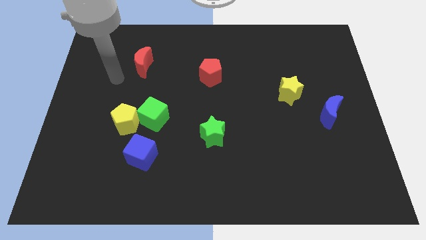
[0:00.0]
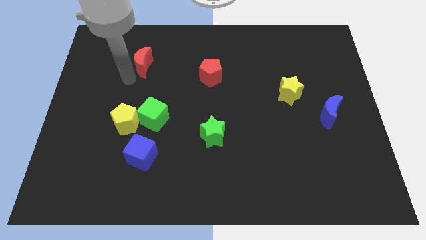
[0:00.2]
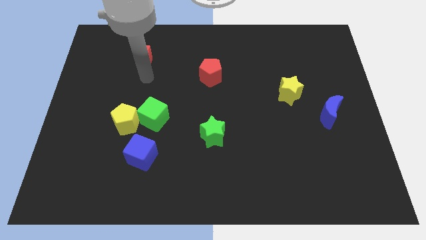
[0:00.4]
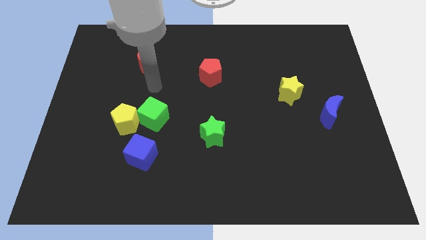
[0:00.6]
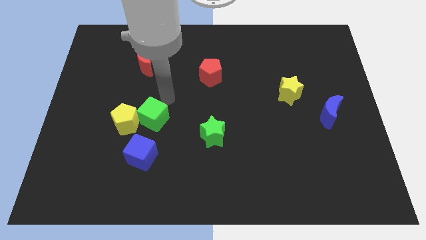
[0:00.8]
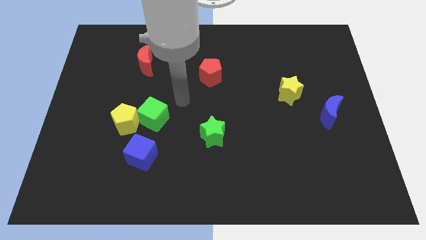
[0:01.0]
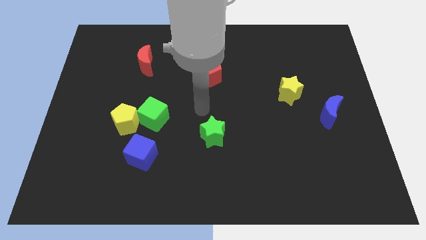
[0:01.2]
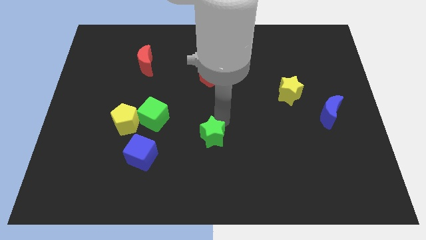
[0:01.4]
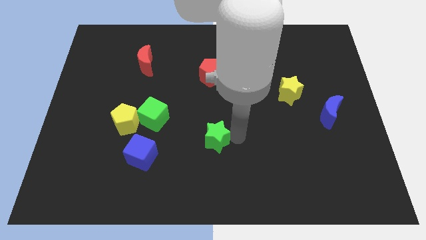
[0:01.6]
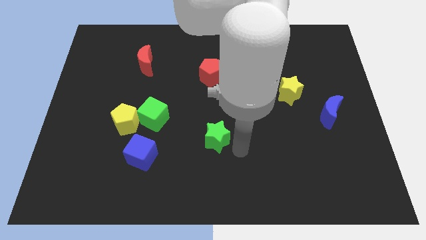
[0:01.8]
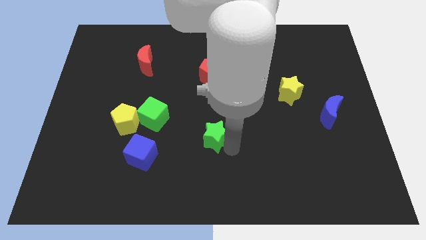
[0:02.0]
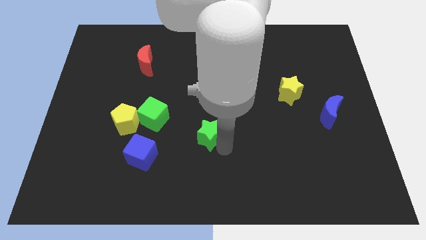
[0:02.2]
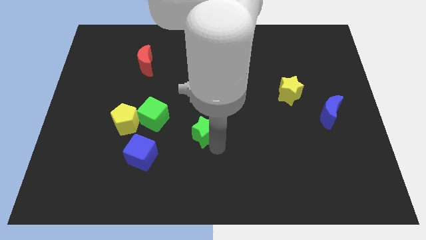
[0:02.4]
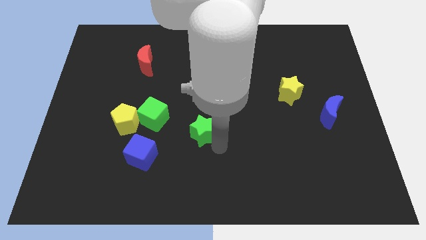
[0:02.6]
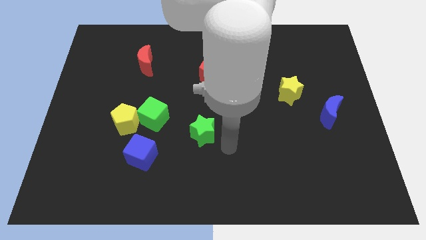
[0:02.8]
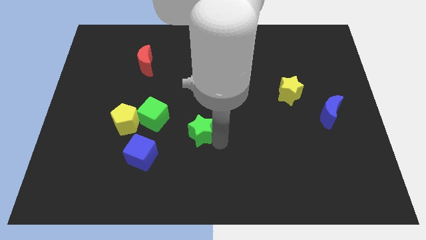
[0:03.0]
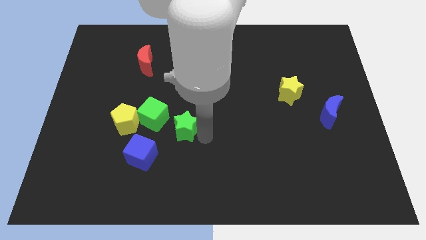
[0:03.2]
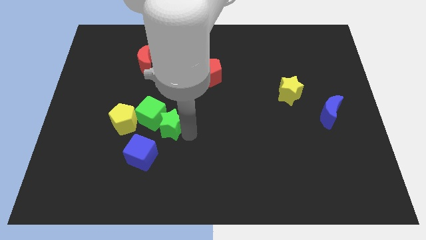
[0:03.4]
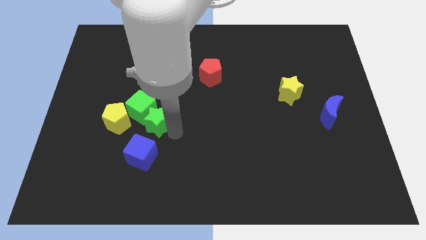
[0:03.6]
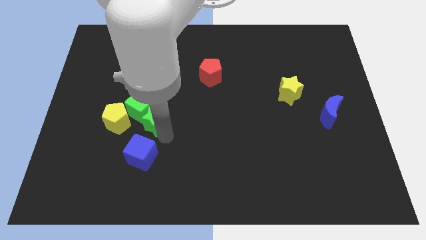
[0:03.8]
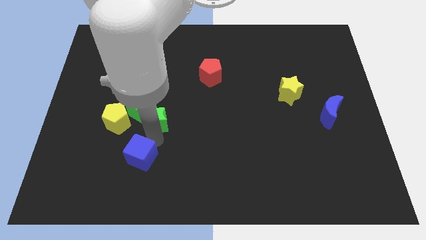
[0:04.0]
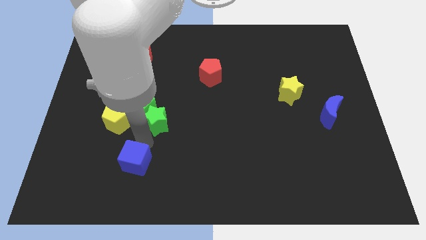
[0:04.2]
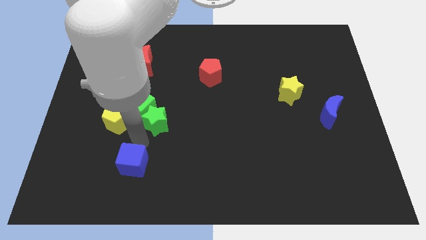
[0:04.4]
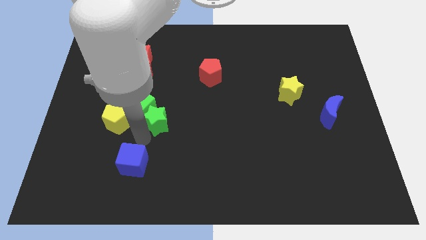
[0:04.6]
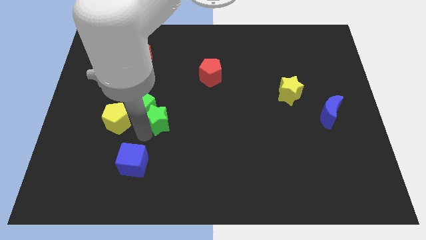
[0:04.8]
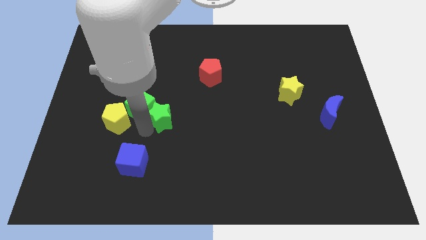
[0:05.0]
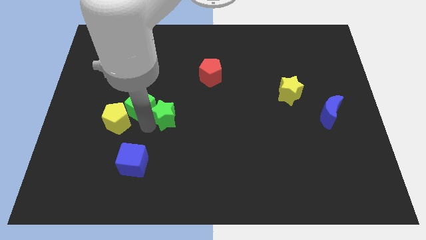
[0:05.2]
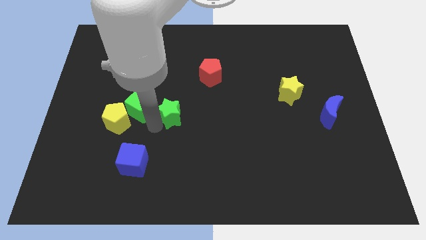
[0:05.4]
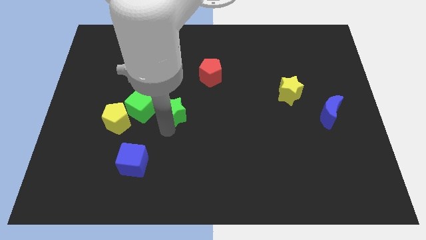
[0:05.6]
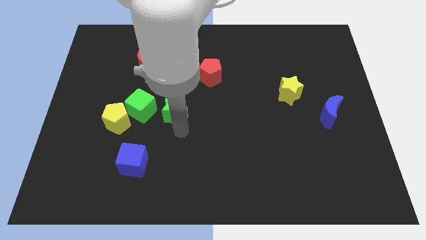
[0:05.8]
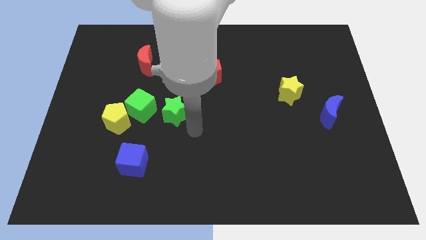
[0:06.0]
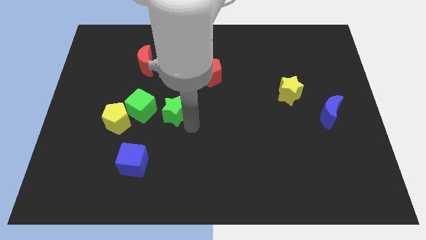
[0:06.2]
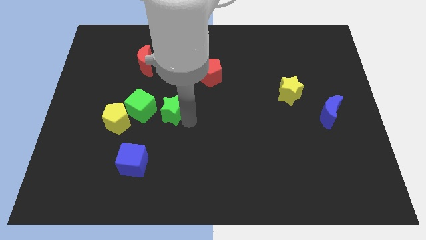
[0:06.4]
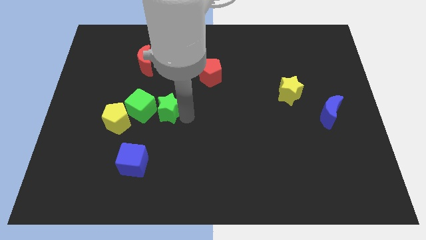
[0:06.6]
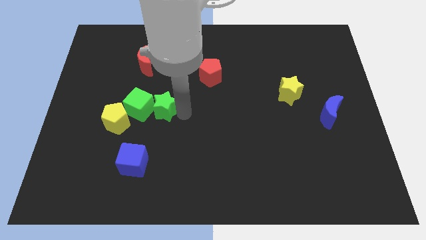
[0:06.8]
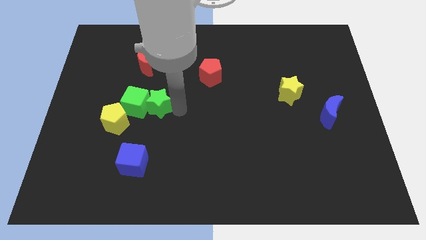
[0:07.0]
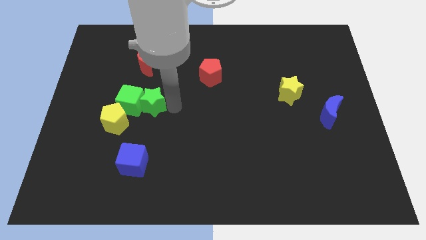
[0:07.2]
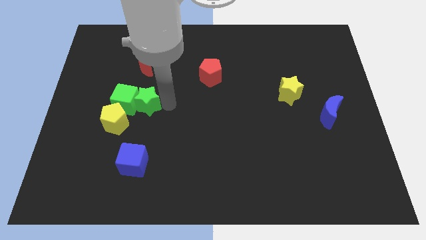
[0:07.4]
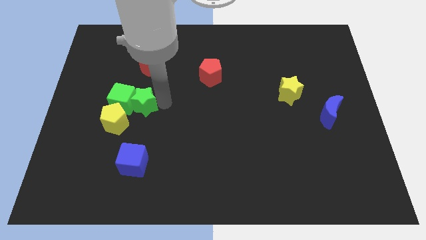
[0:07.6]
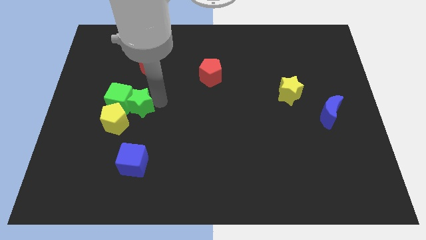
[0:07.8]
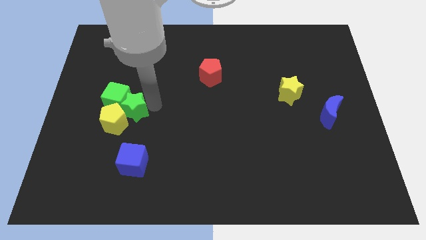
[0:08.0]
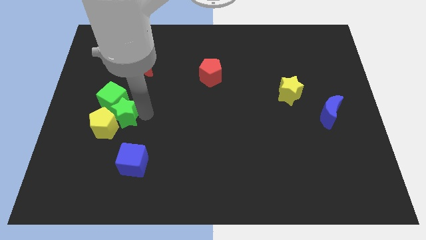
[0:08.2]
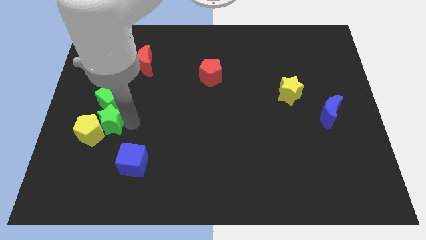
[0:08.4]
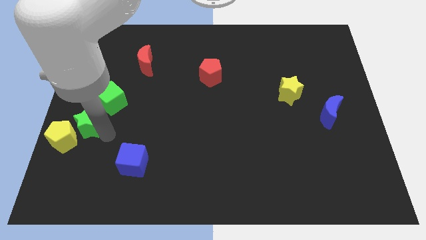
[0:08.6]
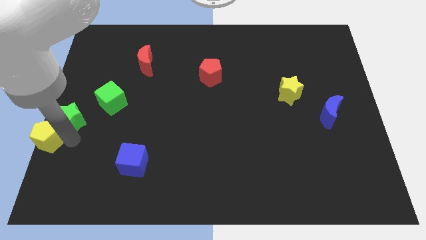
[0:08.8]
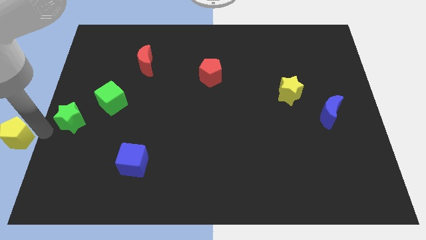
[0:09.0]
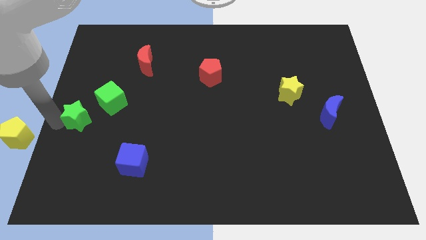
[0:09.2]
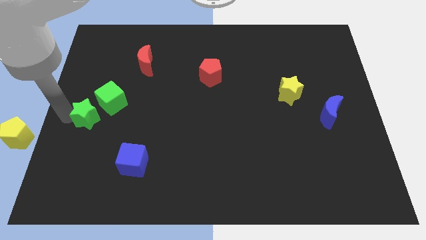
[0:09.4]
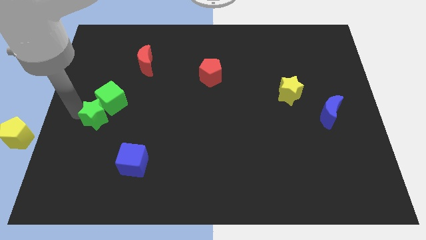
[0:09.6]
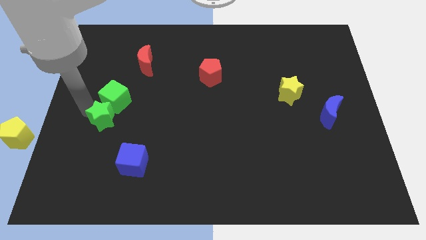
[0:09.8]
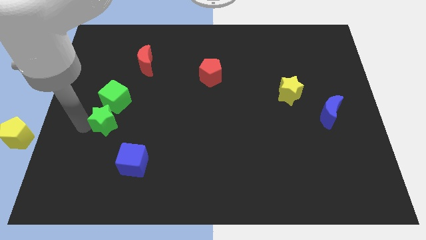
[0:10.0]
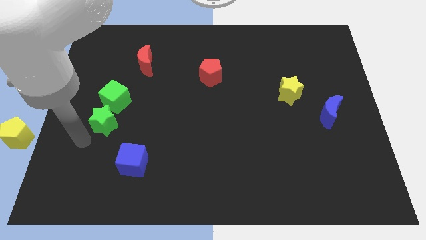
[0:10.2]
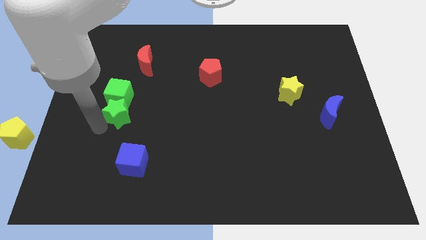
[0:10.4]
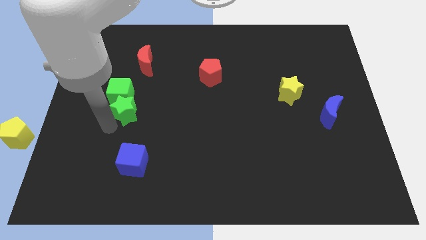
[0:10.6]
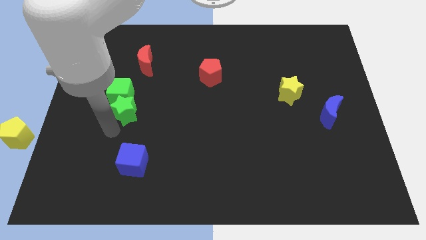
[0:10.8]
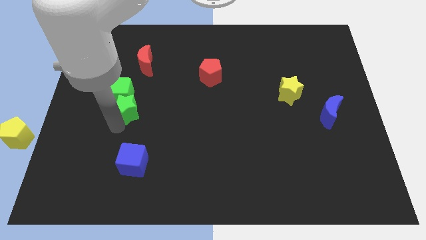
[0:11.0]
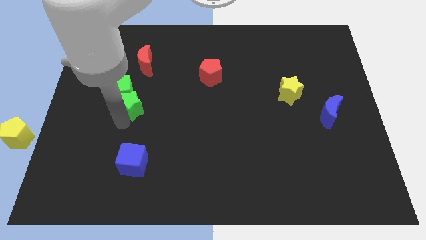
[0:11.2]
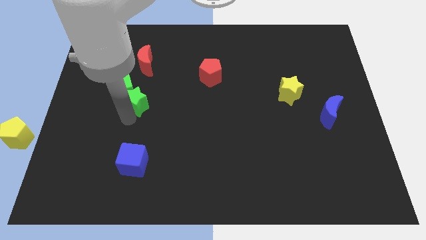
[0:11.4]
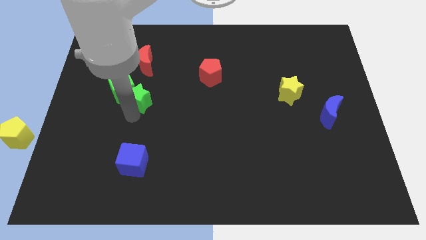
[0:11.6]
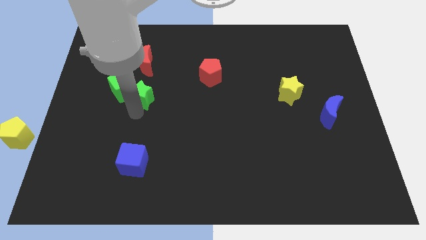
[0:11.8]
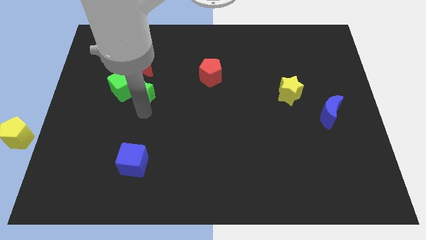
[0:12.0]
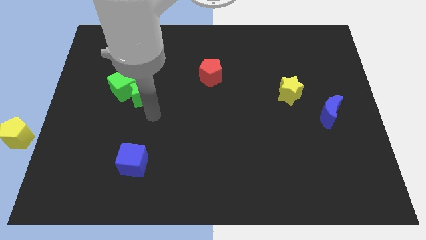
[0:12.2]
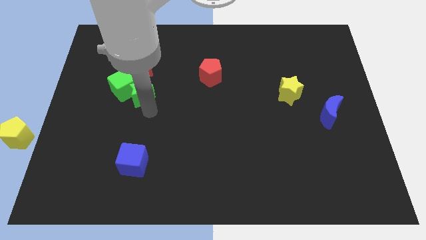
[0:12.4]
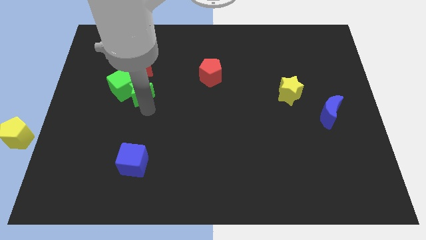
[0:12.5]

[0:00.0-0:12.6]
push the green star up and left diagonally

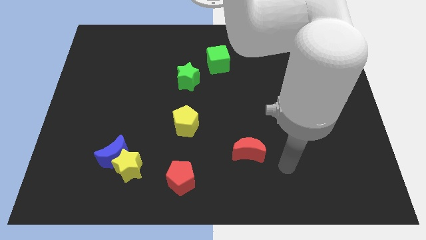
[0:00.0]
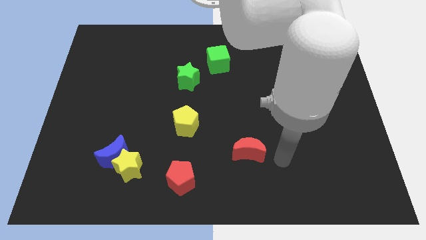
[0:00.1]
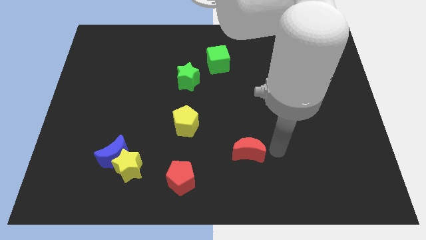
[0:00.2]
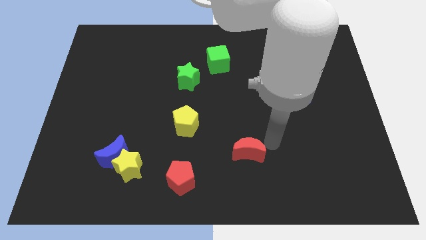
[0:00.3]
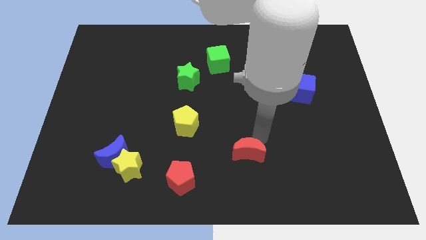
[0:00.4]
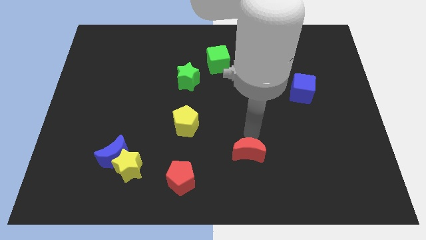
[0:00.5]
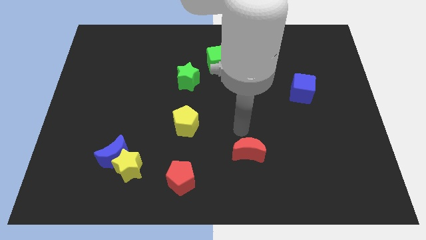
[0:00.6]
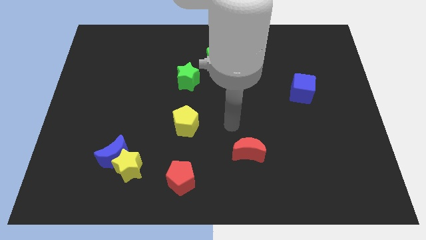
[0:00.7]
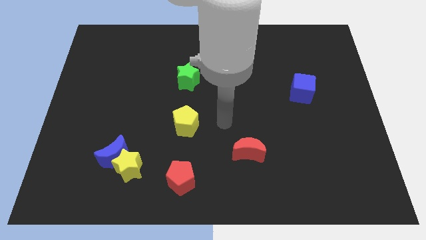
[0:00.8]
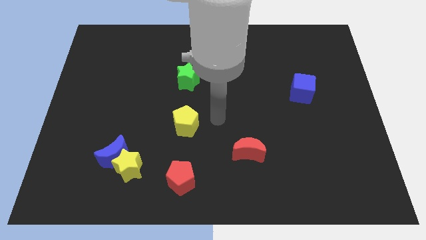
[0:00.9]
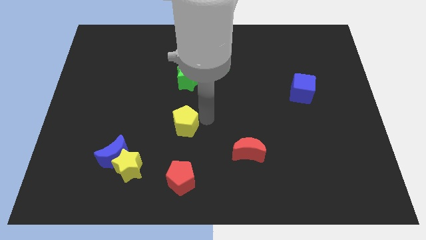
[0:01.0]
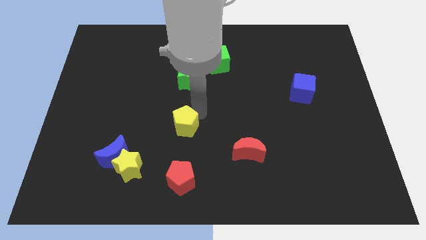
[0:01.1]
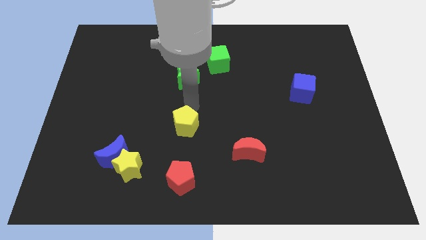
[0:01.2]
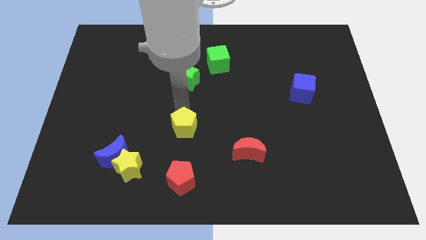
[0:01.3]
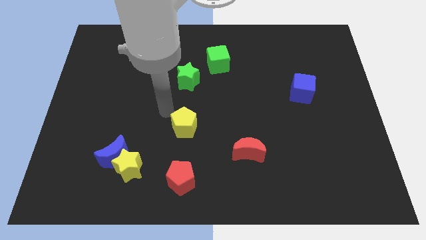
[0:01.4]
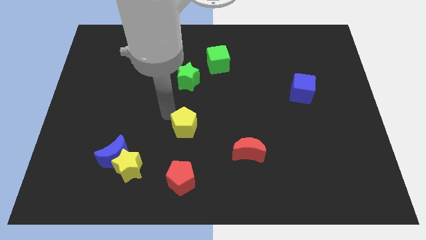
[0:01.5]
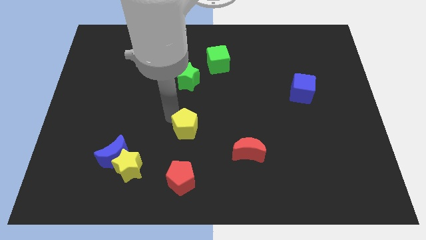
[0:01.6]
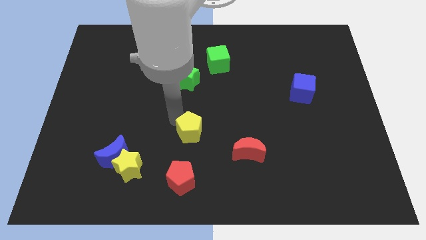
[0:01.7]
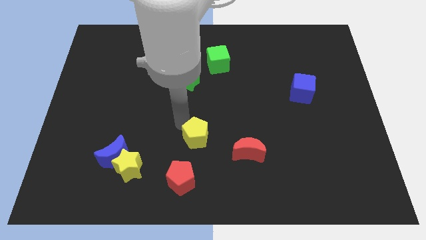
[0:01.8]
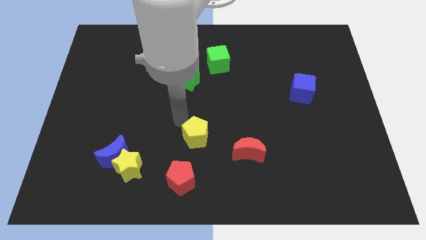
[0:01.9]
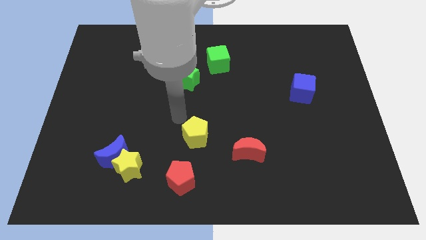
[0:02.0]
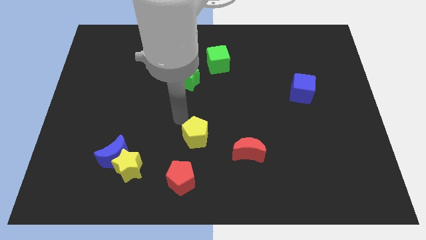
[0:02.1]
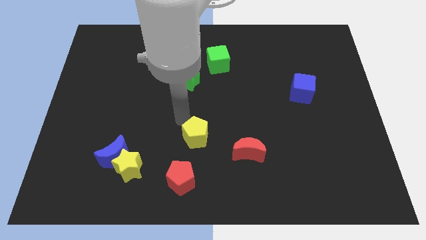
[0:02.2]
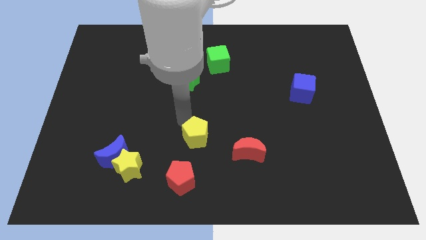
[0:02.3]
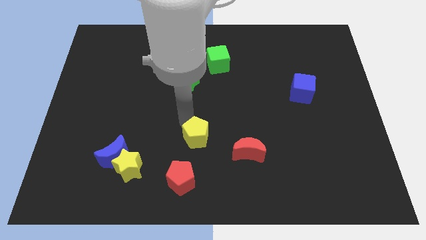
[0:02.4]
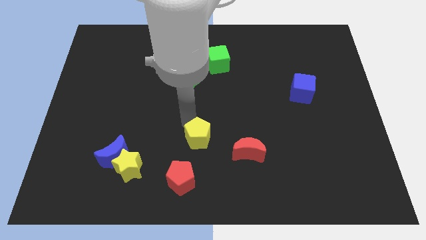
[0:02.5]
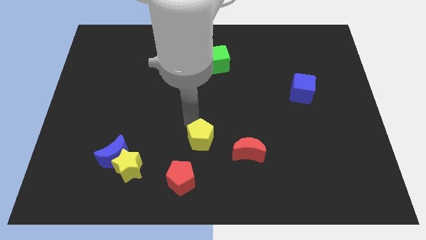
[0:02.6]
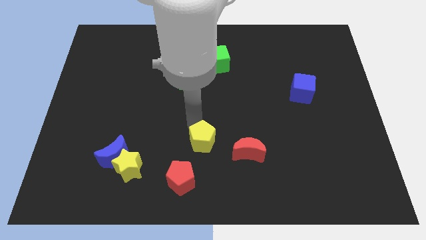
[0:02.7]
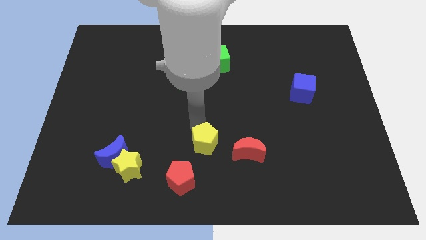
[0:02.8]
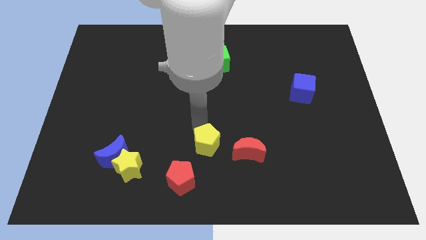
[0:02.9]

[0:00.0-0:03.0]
move the yellow pentagon a little down and right diagonally
